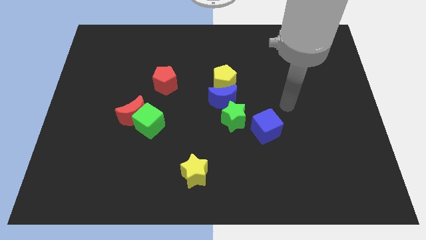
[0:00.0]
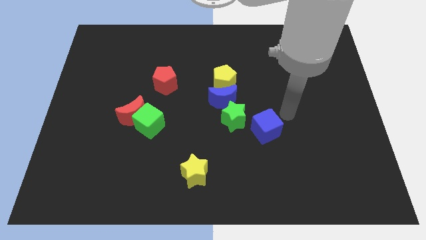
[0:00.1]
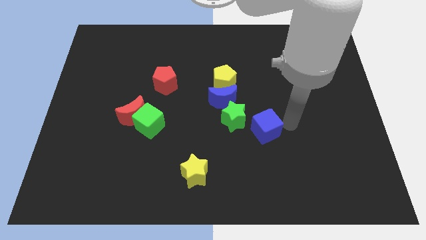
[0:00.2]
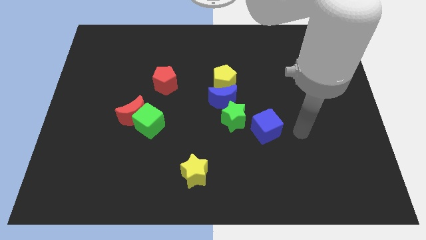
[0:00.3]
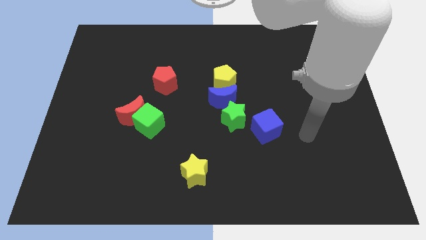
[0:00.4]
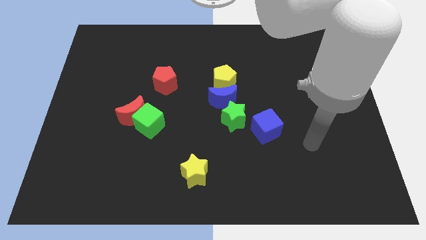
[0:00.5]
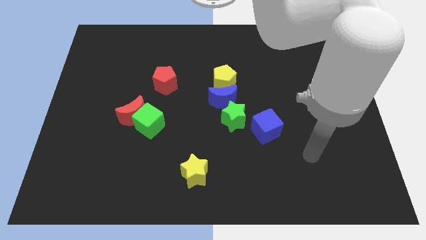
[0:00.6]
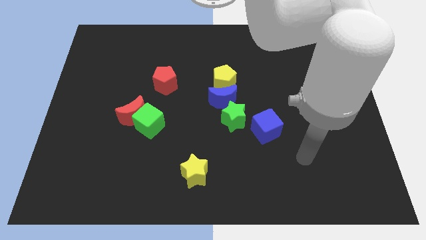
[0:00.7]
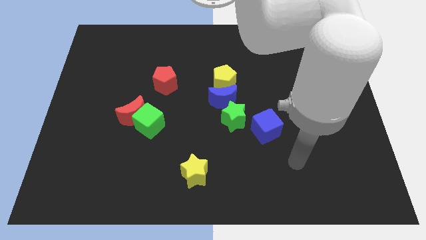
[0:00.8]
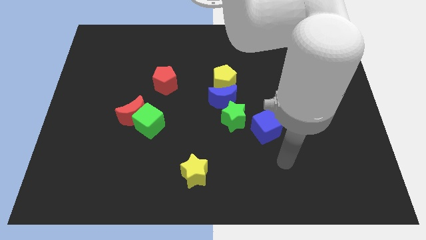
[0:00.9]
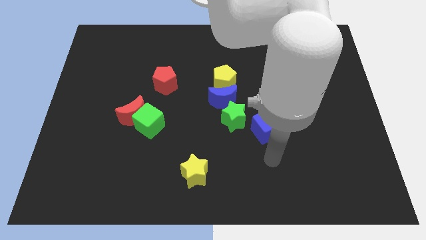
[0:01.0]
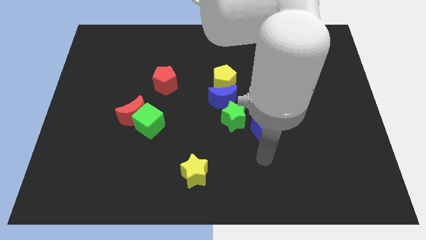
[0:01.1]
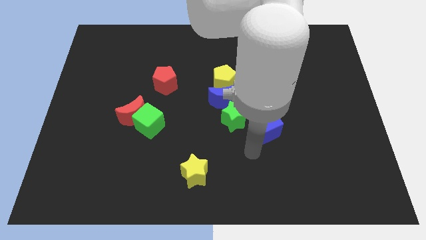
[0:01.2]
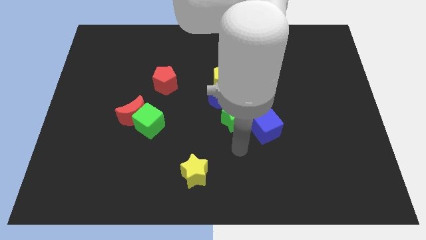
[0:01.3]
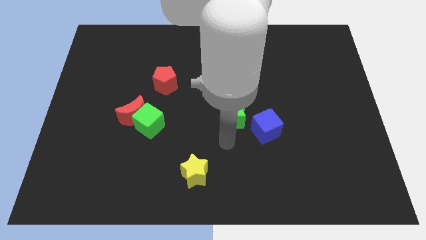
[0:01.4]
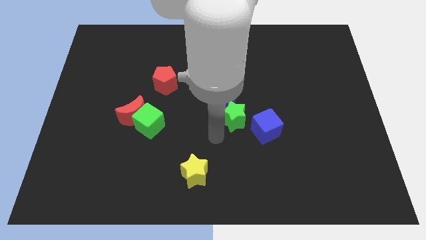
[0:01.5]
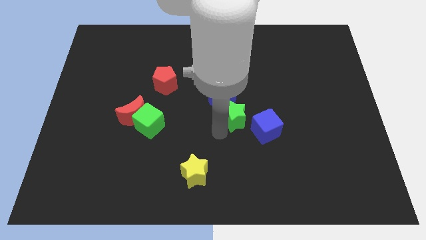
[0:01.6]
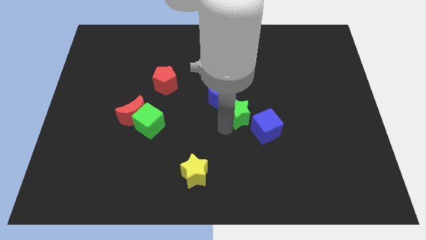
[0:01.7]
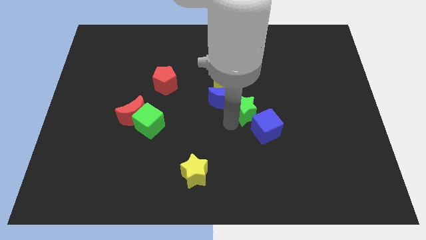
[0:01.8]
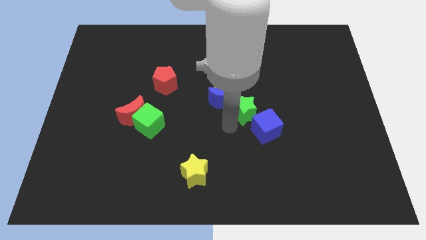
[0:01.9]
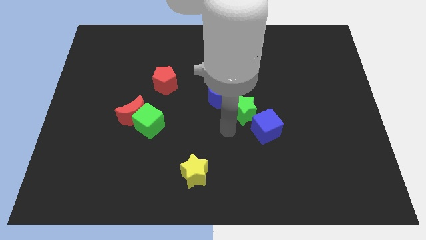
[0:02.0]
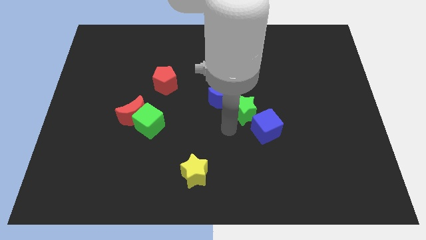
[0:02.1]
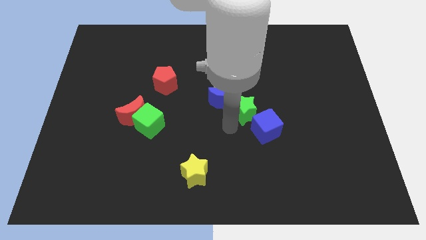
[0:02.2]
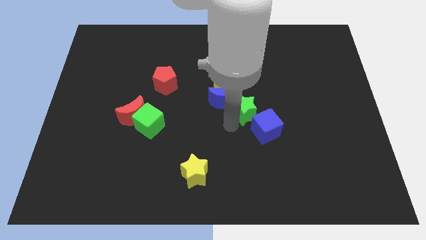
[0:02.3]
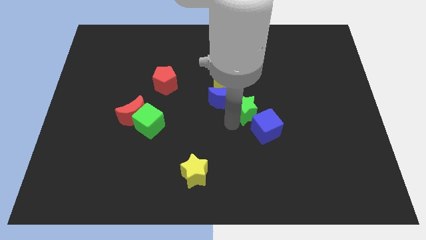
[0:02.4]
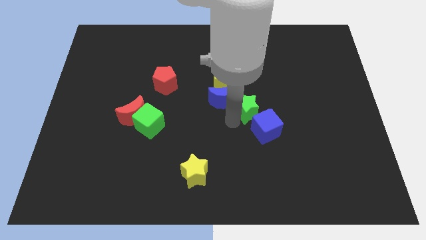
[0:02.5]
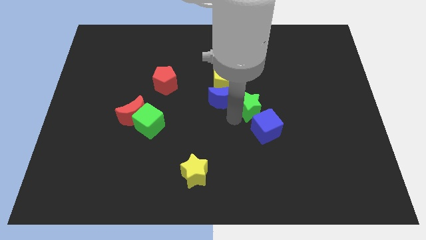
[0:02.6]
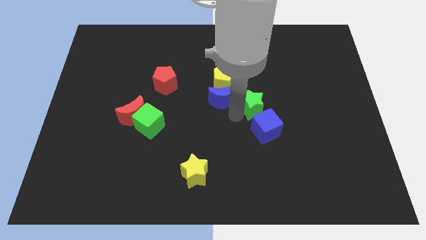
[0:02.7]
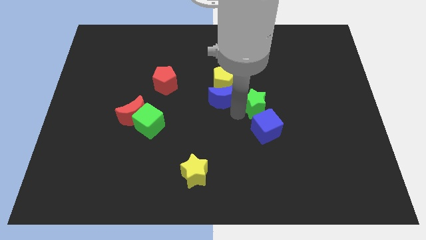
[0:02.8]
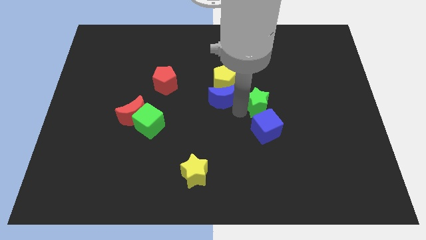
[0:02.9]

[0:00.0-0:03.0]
slightly slide the green star up and right

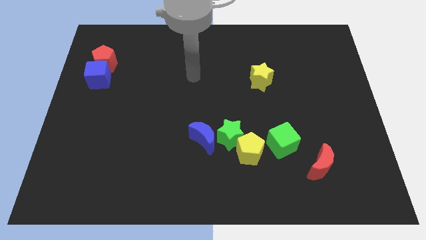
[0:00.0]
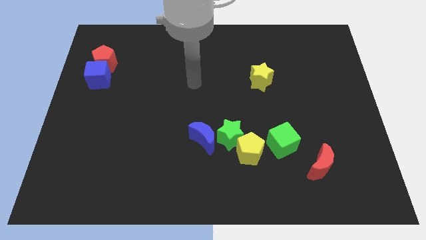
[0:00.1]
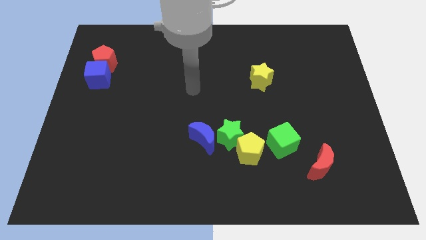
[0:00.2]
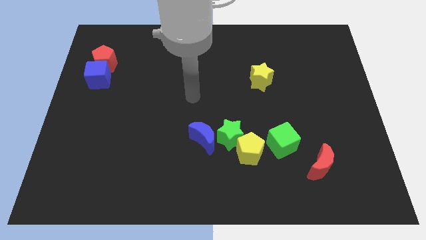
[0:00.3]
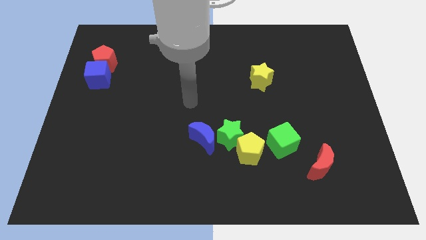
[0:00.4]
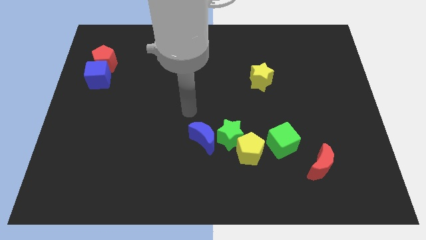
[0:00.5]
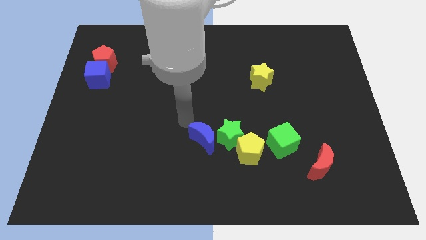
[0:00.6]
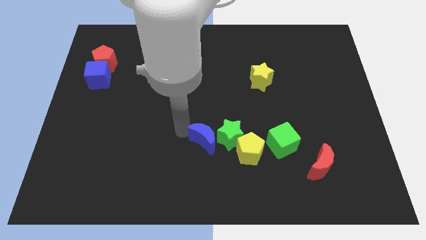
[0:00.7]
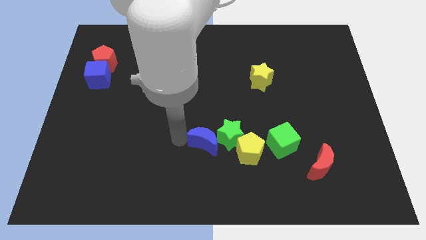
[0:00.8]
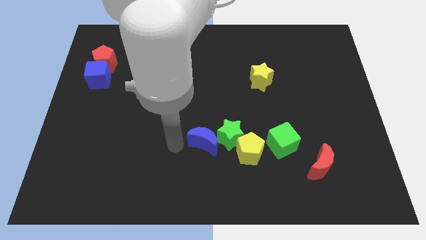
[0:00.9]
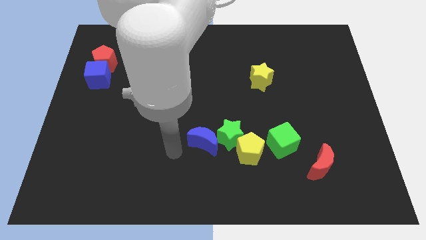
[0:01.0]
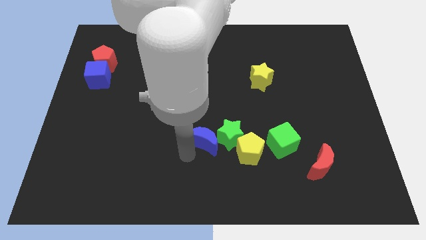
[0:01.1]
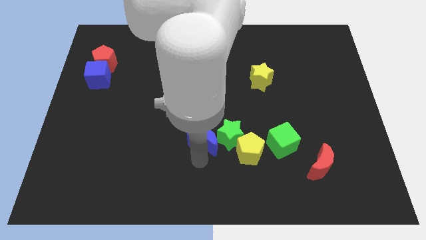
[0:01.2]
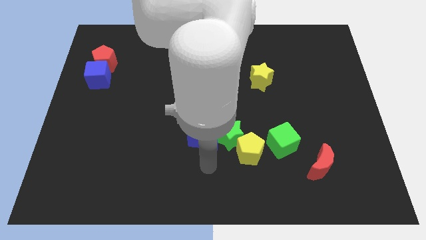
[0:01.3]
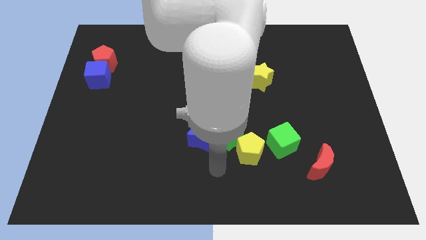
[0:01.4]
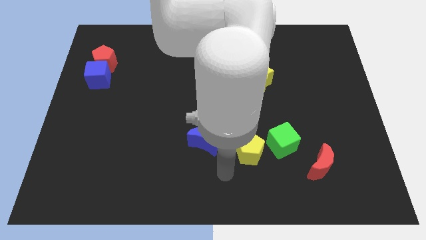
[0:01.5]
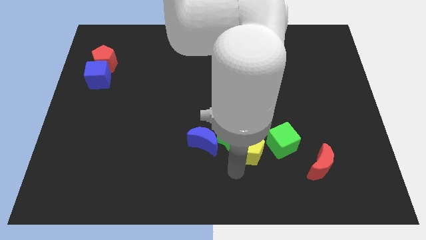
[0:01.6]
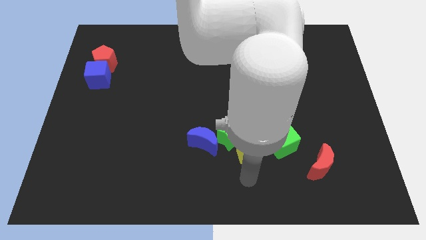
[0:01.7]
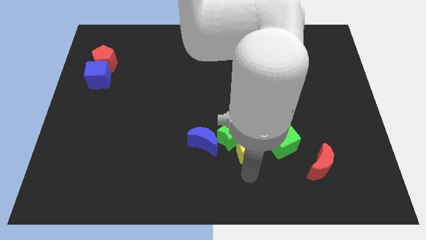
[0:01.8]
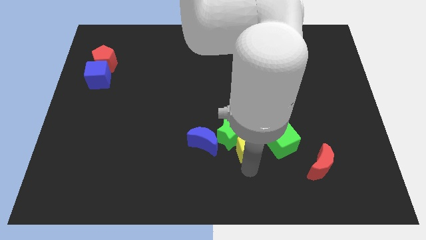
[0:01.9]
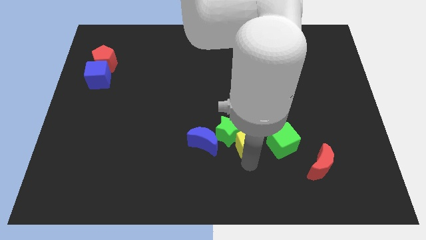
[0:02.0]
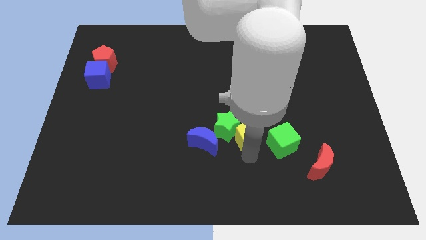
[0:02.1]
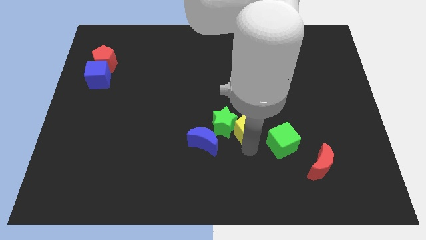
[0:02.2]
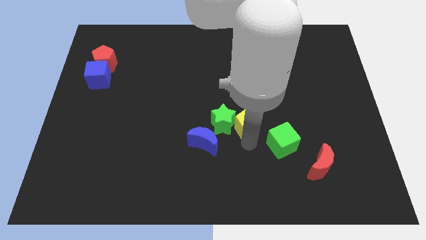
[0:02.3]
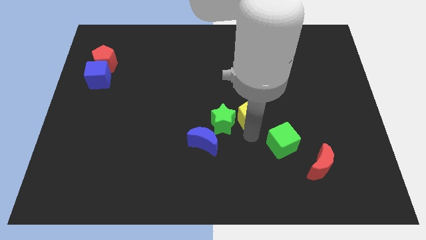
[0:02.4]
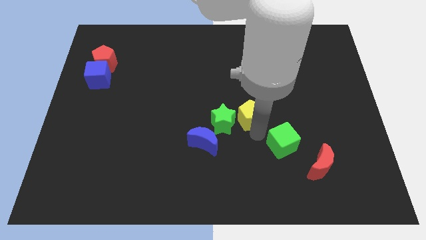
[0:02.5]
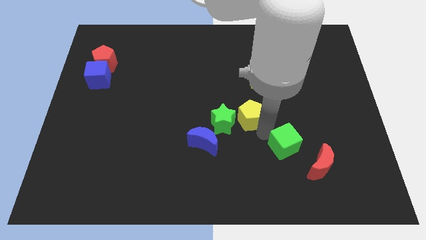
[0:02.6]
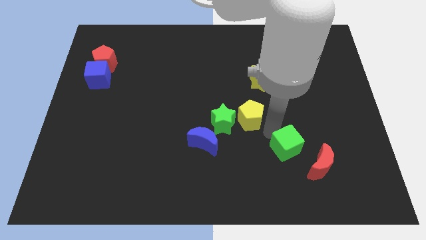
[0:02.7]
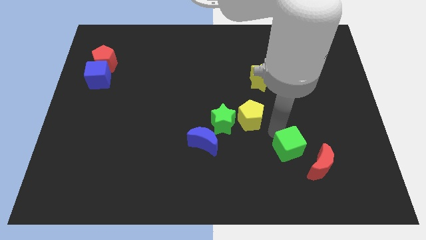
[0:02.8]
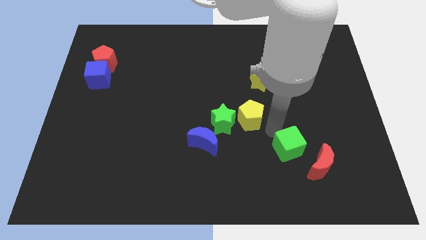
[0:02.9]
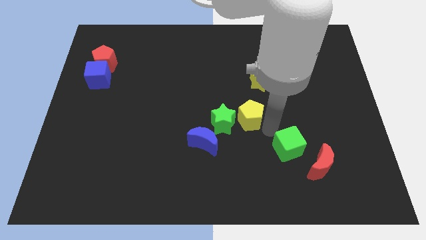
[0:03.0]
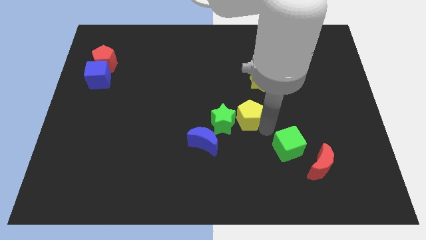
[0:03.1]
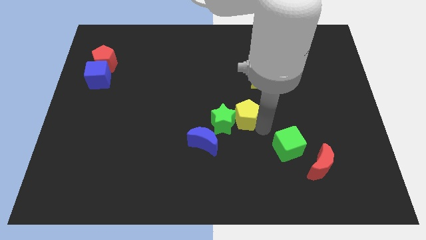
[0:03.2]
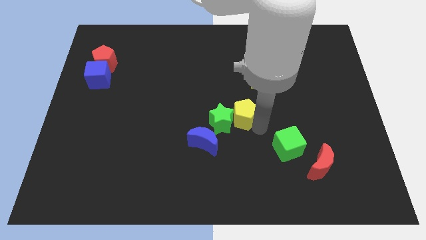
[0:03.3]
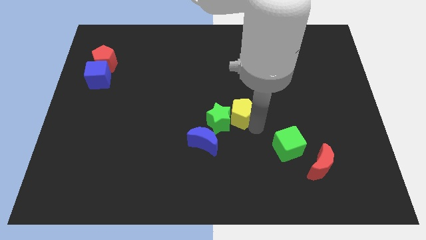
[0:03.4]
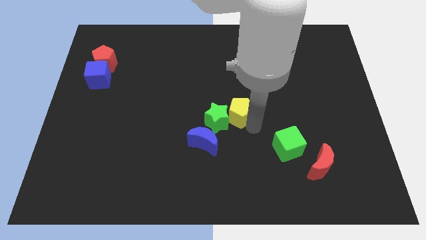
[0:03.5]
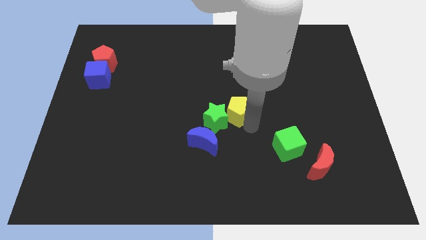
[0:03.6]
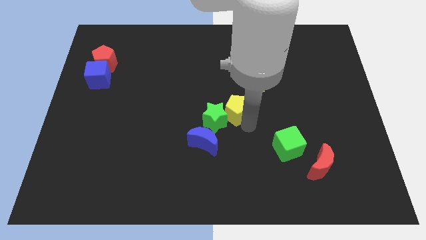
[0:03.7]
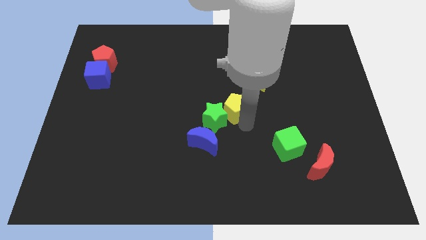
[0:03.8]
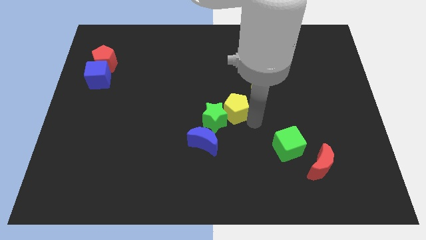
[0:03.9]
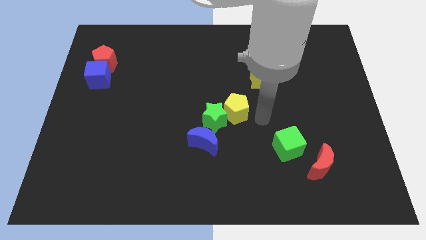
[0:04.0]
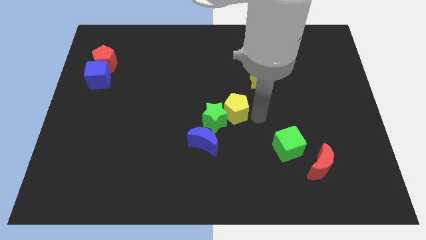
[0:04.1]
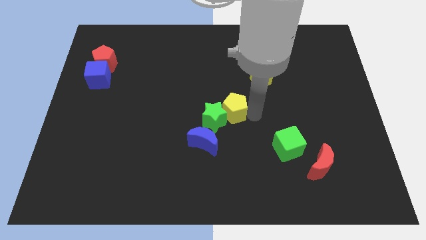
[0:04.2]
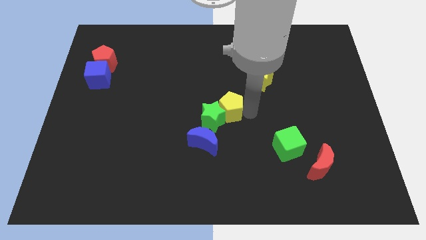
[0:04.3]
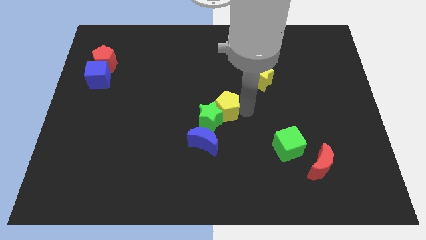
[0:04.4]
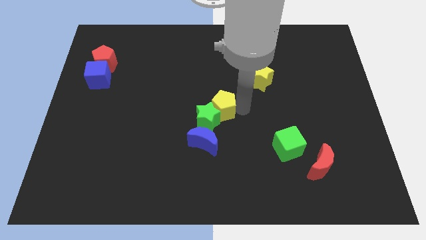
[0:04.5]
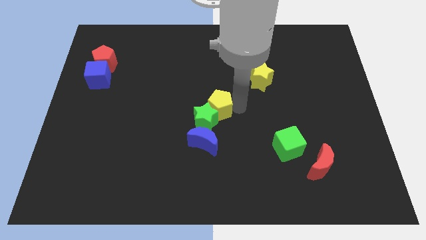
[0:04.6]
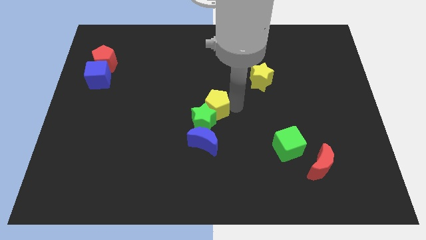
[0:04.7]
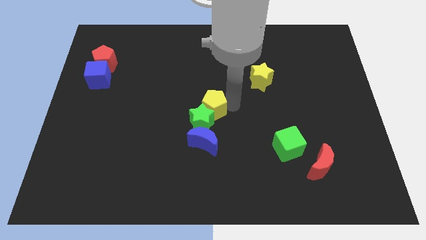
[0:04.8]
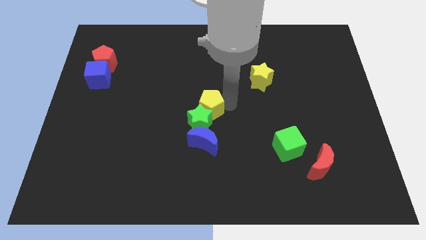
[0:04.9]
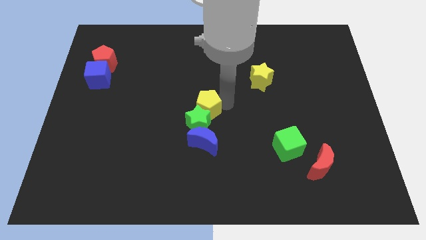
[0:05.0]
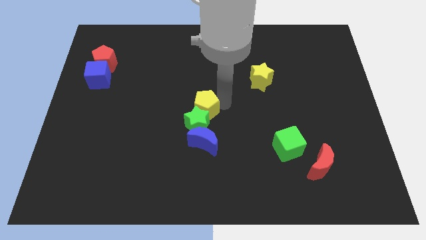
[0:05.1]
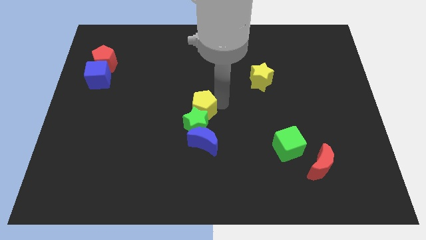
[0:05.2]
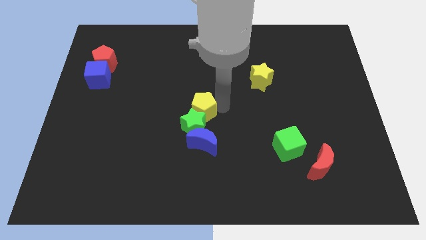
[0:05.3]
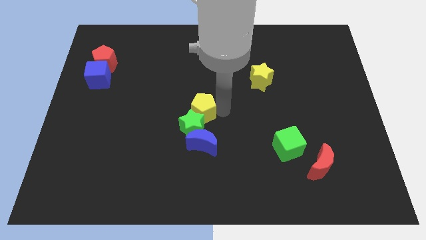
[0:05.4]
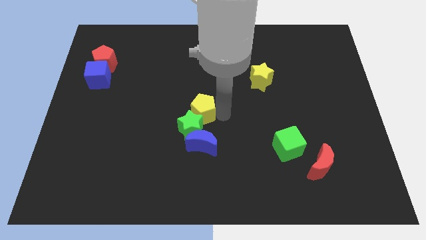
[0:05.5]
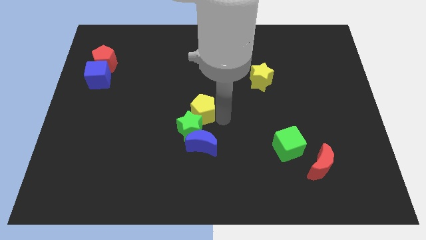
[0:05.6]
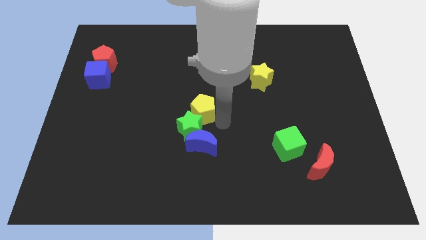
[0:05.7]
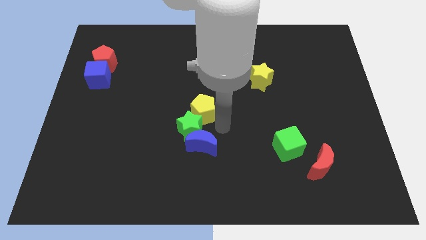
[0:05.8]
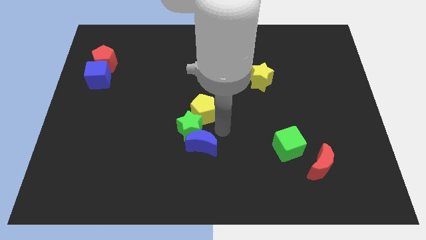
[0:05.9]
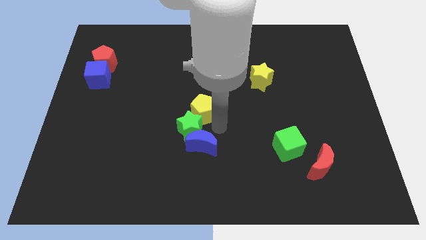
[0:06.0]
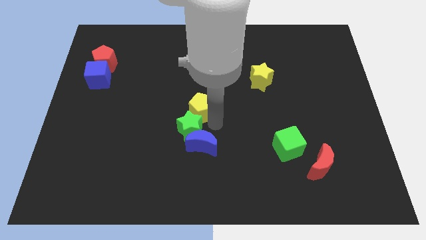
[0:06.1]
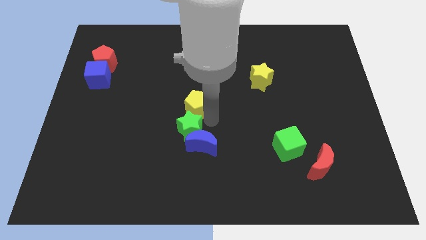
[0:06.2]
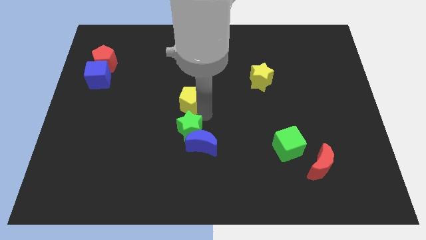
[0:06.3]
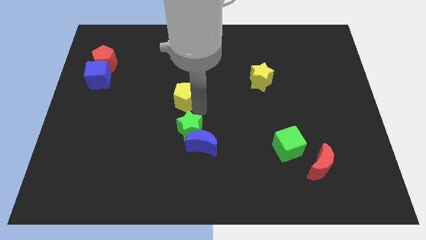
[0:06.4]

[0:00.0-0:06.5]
slide the yellow pentagon upwards and left
